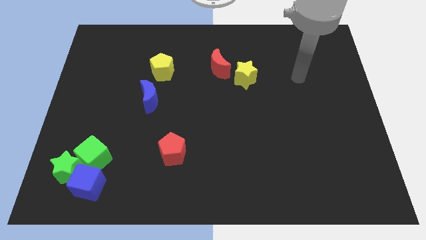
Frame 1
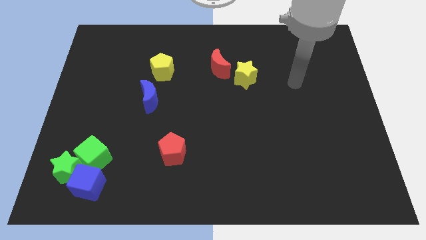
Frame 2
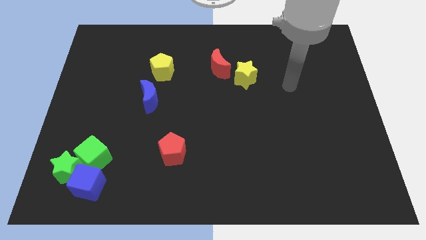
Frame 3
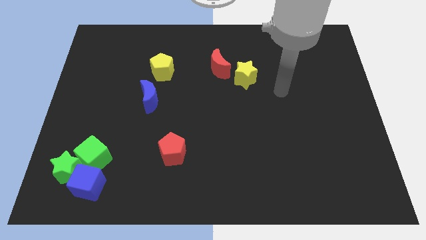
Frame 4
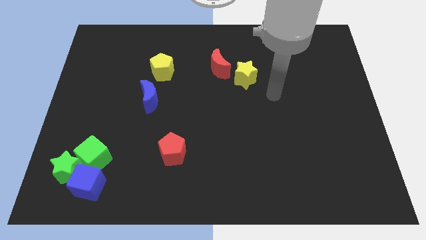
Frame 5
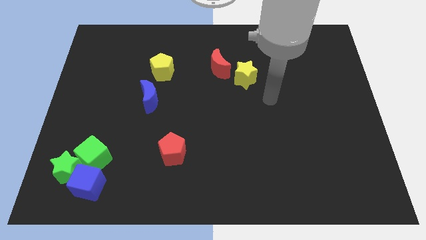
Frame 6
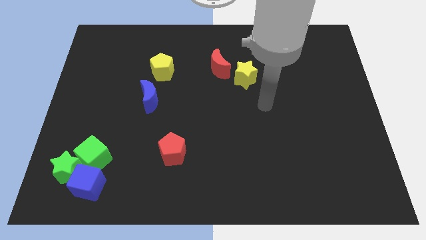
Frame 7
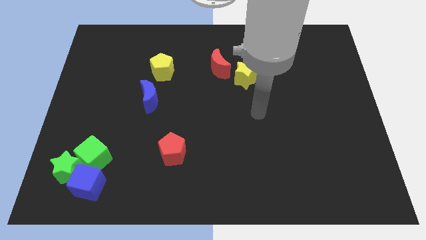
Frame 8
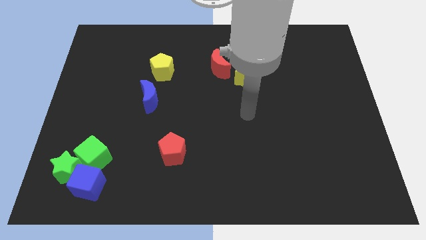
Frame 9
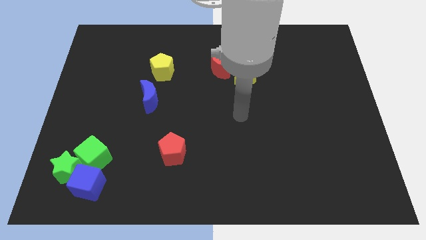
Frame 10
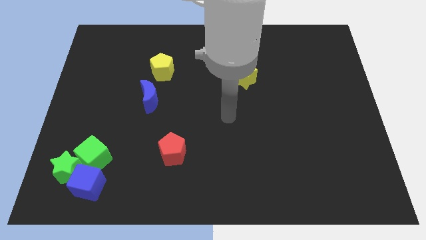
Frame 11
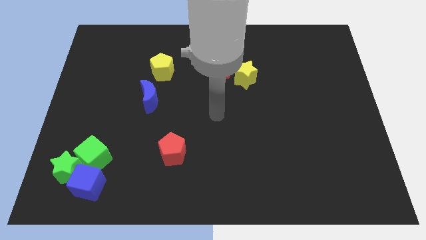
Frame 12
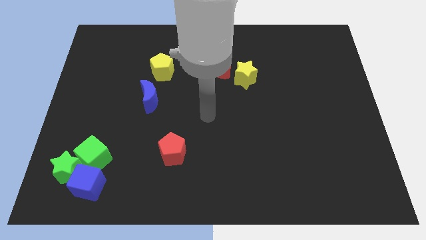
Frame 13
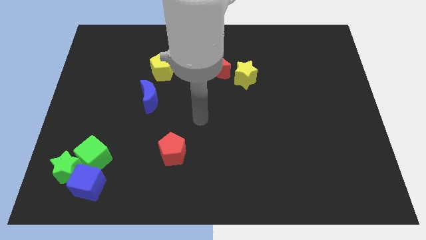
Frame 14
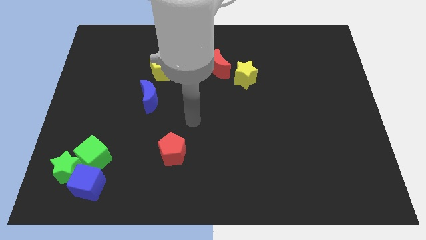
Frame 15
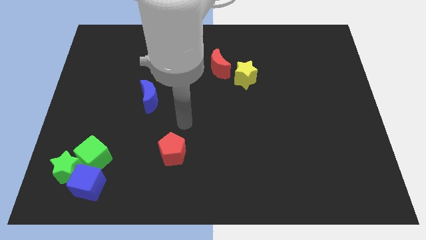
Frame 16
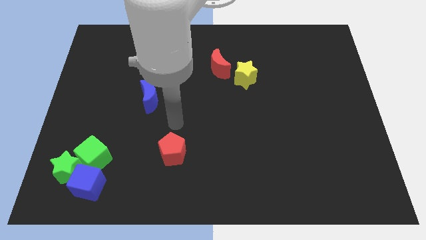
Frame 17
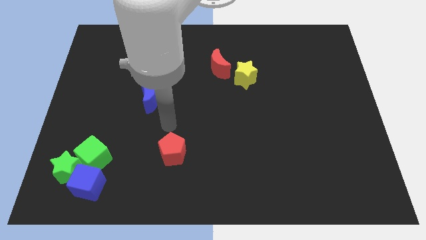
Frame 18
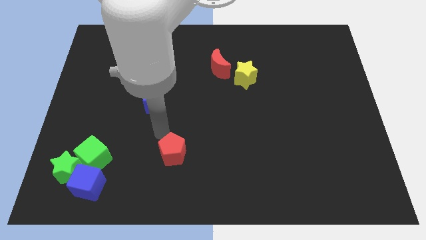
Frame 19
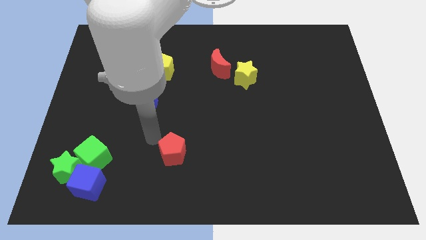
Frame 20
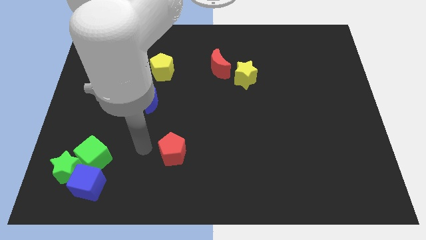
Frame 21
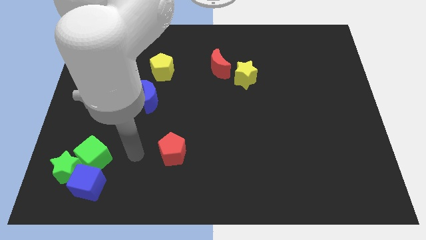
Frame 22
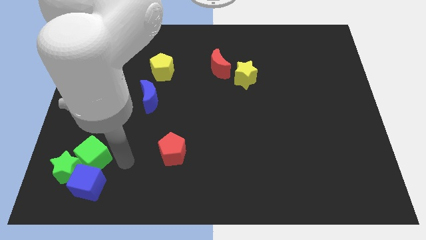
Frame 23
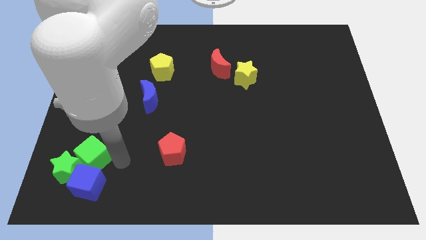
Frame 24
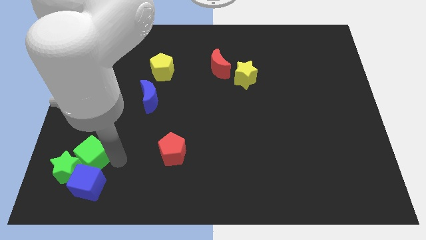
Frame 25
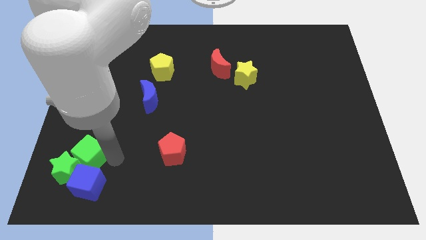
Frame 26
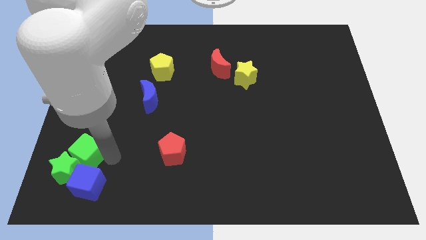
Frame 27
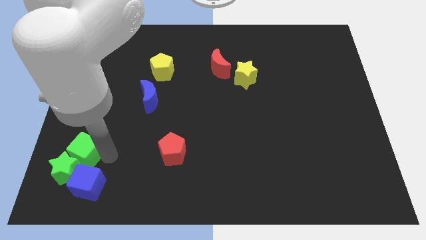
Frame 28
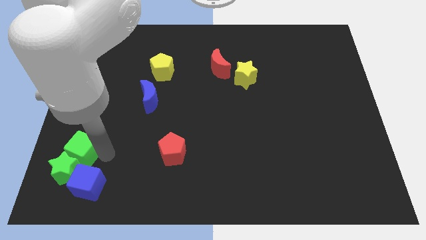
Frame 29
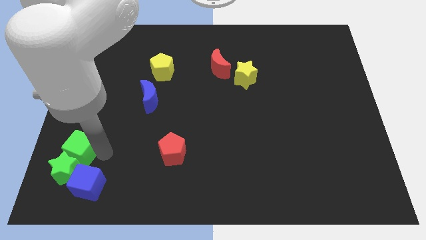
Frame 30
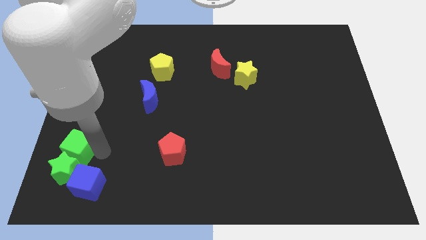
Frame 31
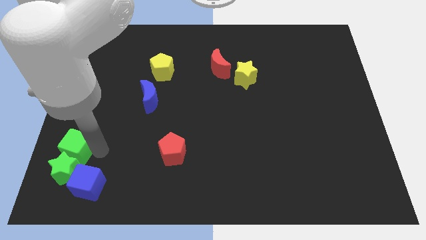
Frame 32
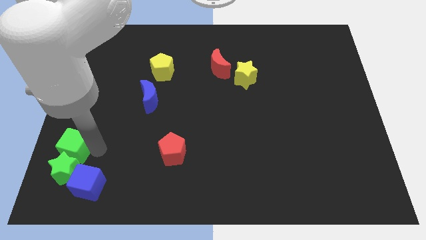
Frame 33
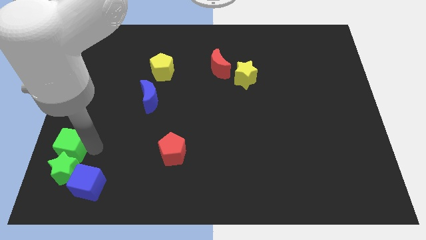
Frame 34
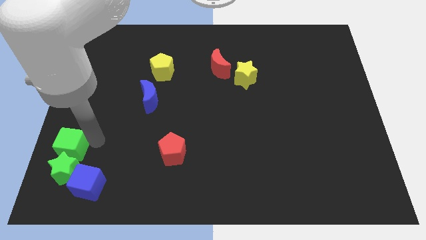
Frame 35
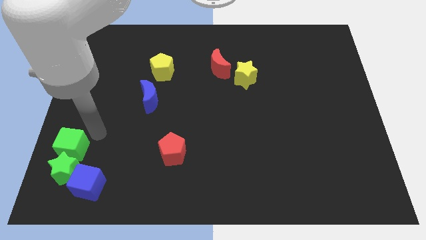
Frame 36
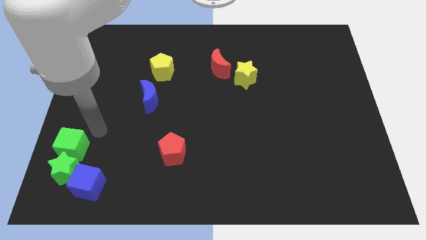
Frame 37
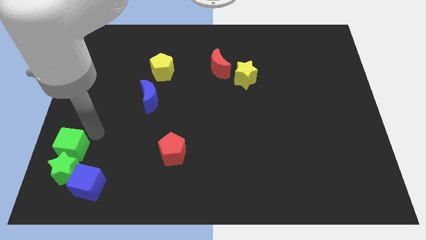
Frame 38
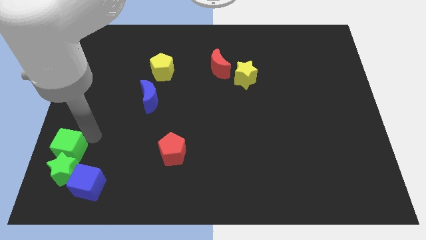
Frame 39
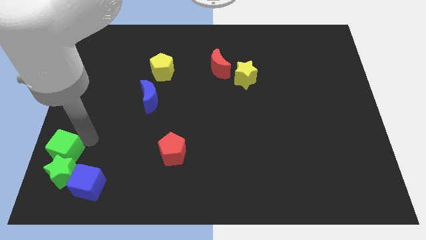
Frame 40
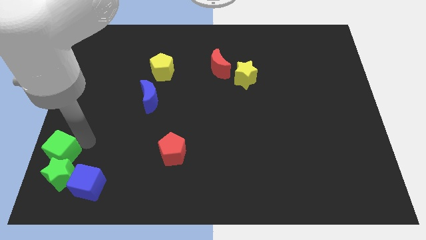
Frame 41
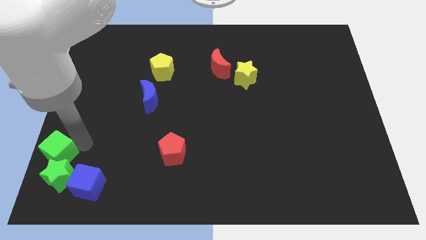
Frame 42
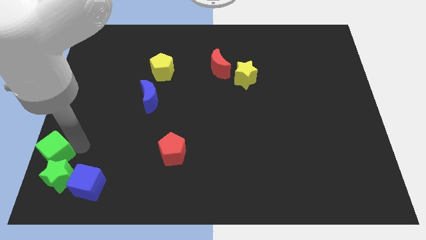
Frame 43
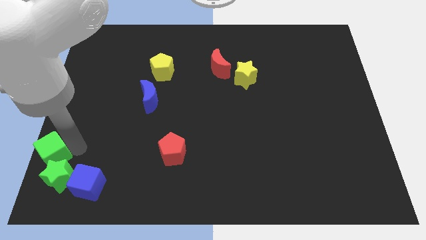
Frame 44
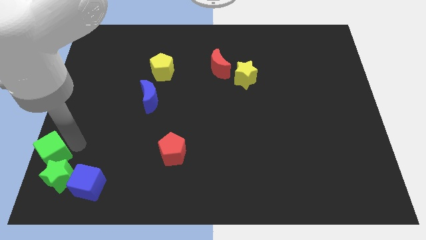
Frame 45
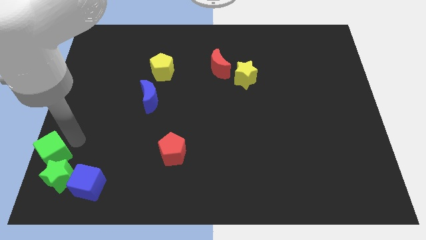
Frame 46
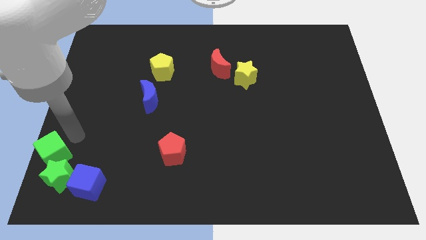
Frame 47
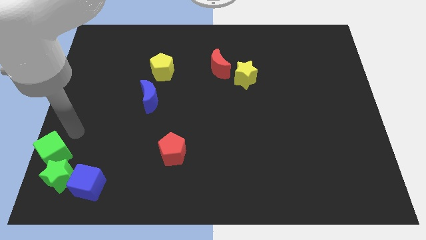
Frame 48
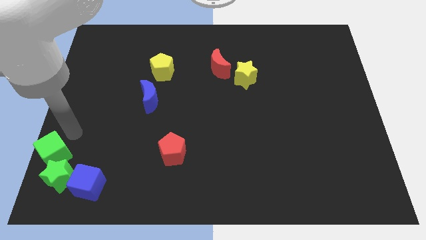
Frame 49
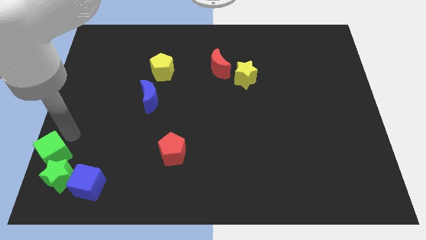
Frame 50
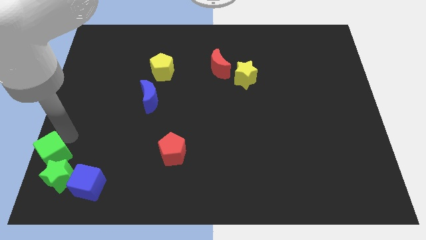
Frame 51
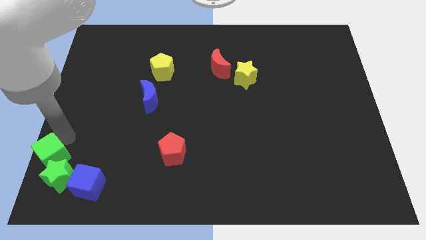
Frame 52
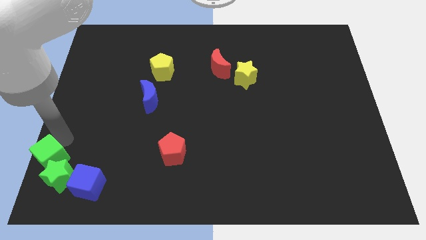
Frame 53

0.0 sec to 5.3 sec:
push the green cube to the bottom left of the board

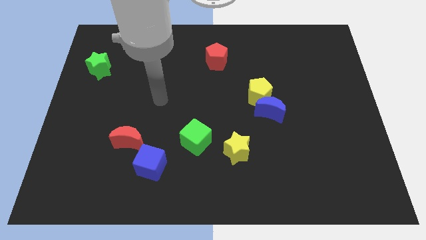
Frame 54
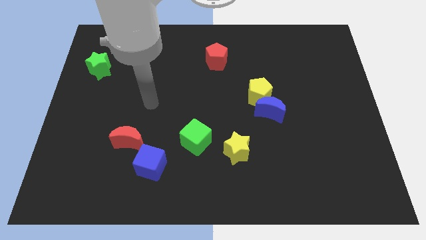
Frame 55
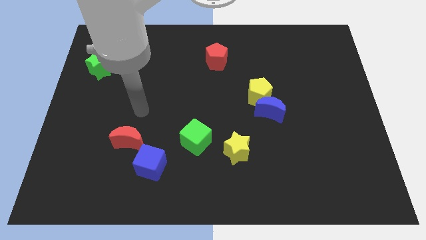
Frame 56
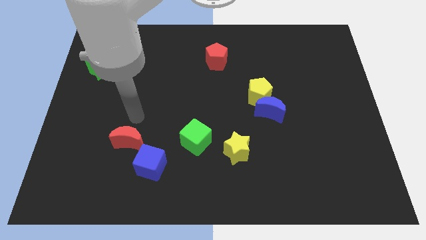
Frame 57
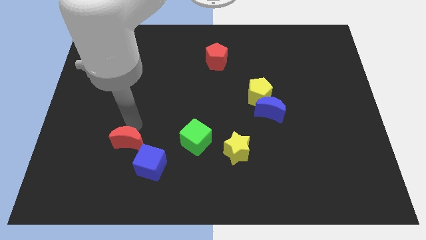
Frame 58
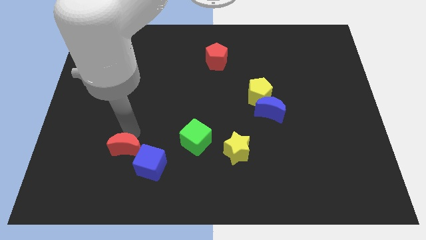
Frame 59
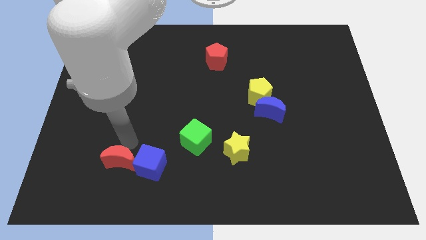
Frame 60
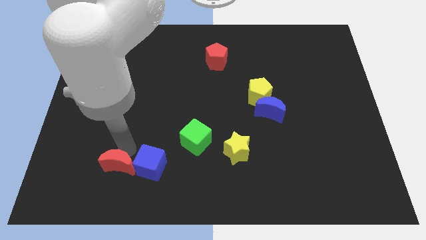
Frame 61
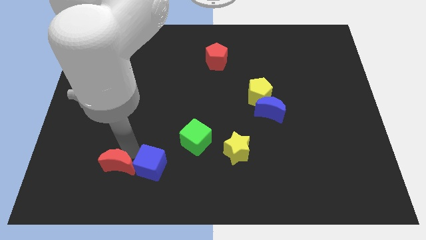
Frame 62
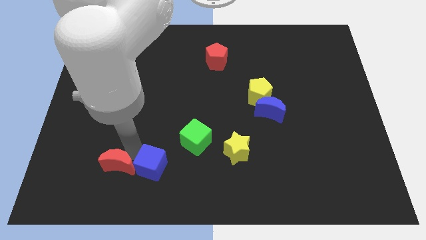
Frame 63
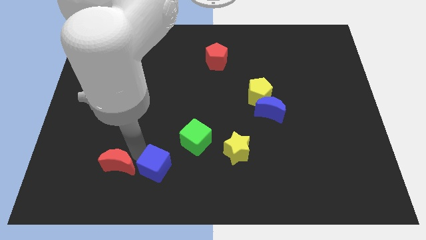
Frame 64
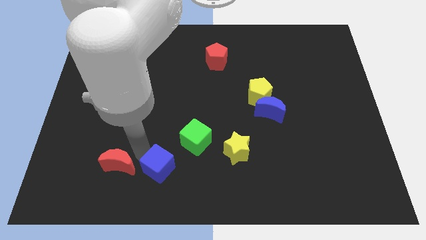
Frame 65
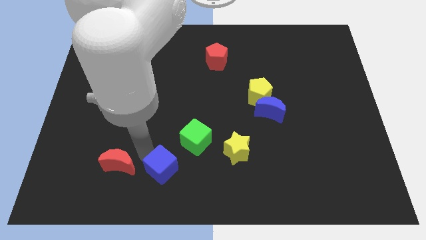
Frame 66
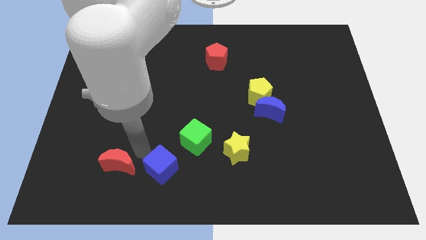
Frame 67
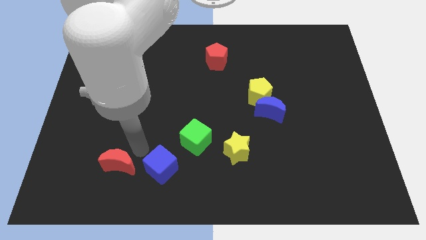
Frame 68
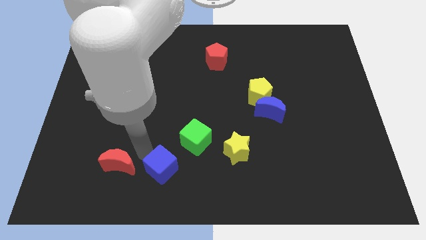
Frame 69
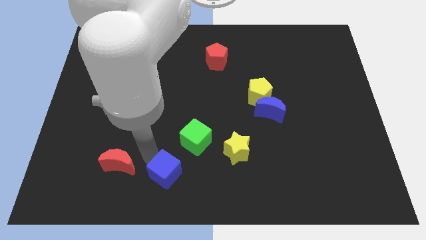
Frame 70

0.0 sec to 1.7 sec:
put the blue cube to the bottom
